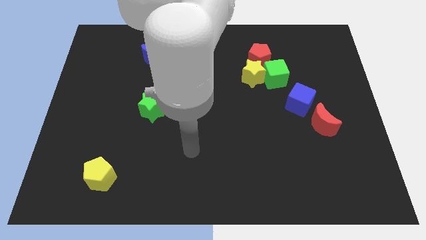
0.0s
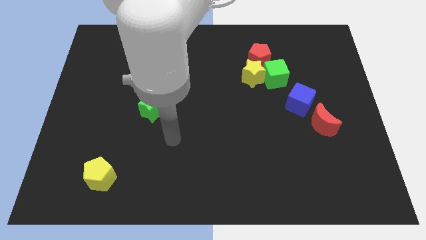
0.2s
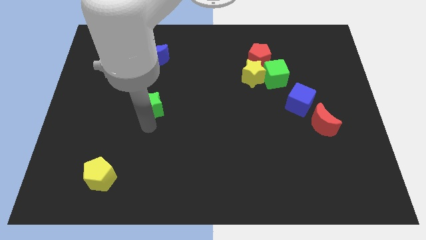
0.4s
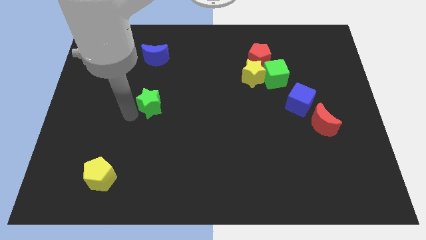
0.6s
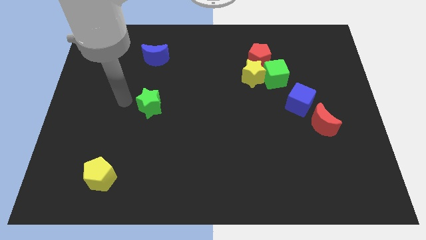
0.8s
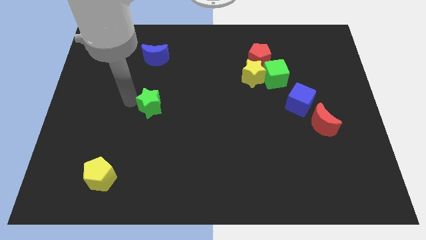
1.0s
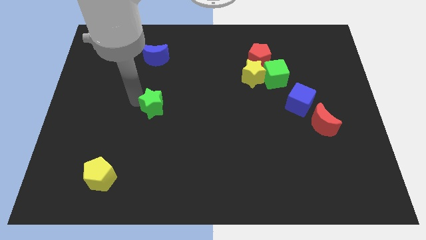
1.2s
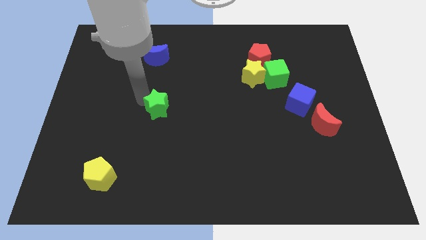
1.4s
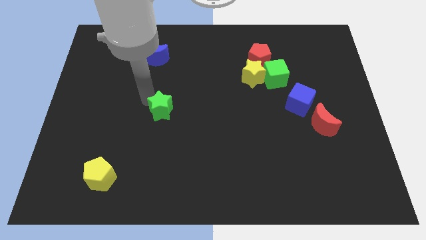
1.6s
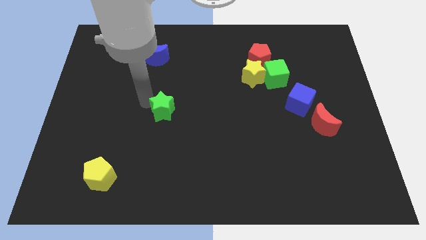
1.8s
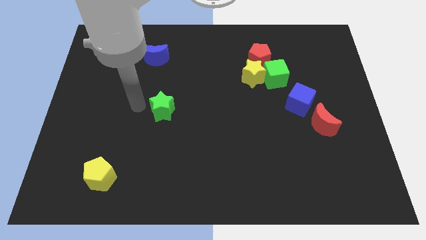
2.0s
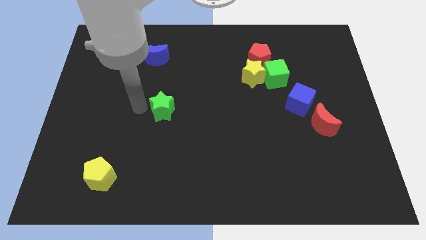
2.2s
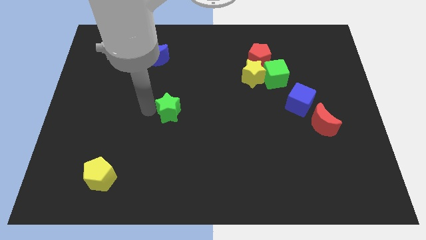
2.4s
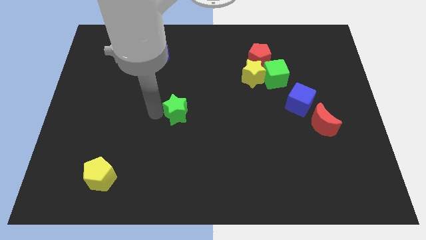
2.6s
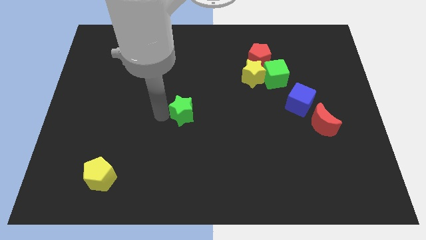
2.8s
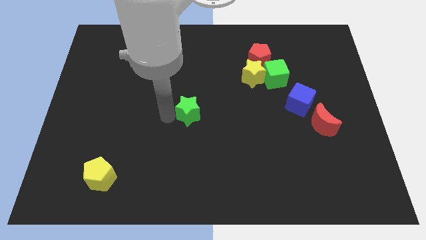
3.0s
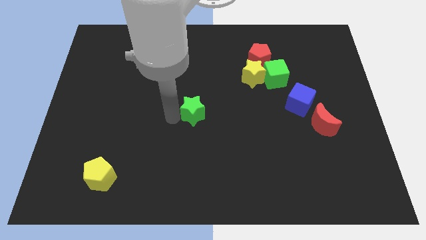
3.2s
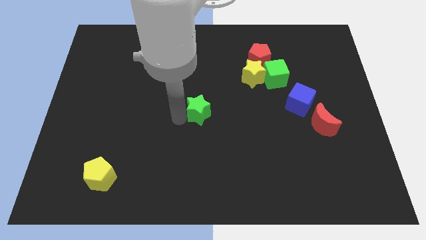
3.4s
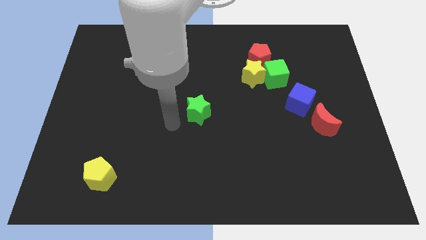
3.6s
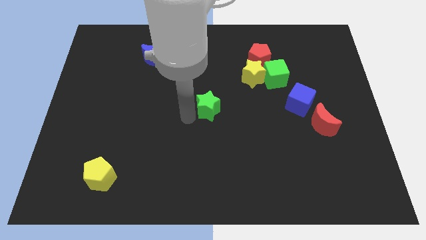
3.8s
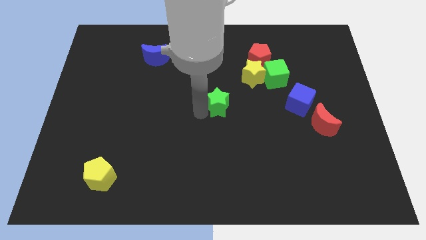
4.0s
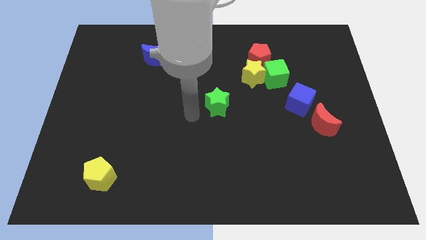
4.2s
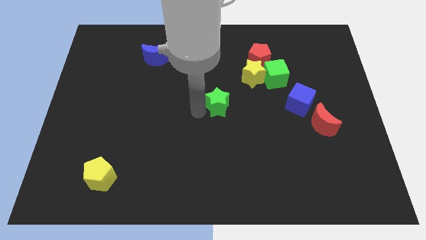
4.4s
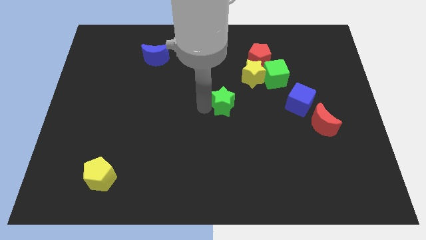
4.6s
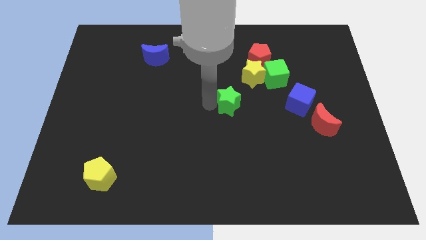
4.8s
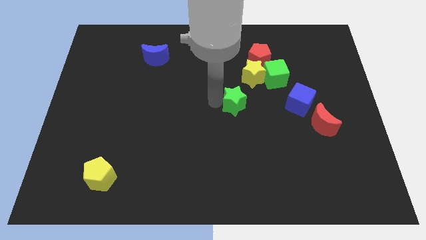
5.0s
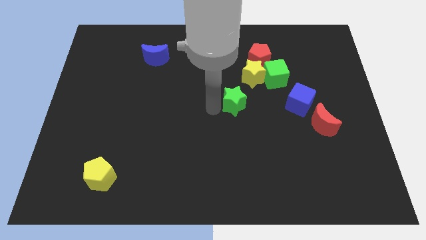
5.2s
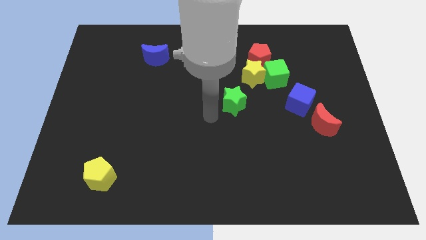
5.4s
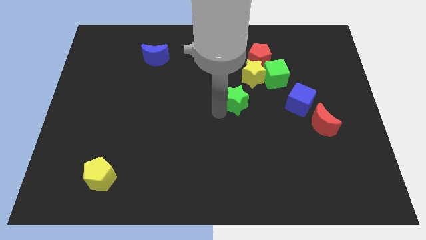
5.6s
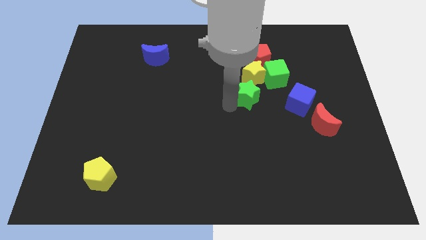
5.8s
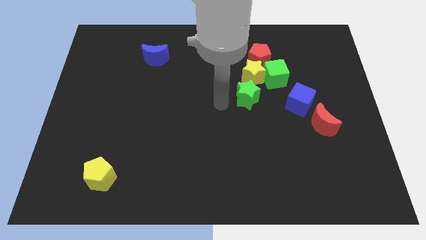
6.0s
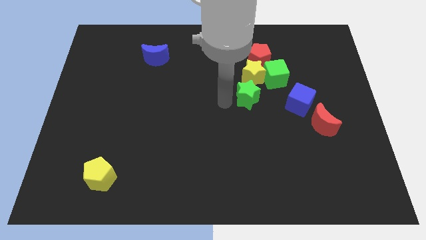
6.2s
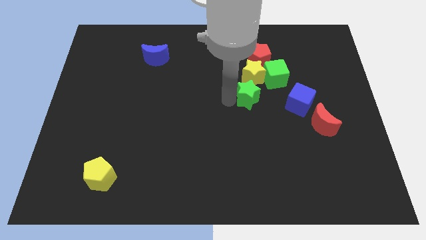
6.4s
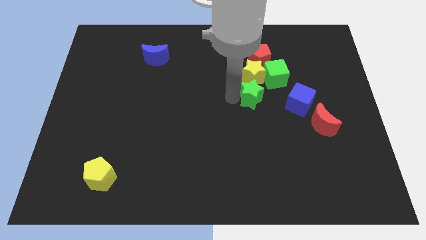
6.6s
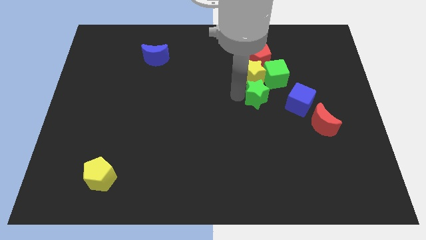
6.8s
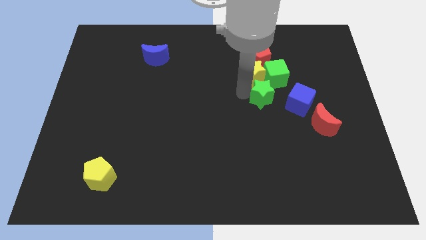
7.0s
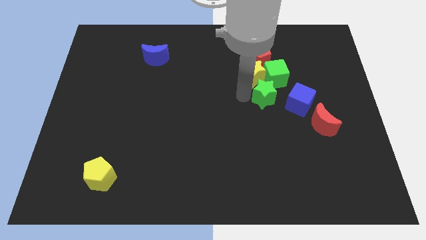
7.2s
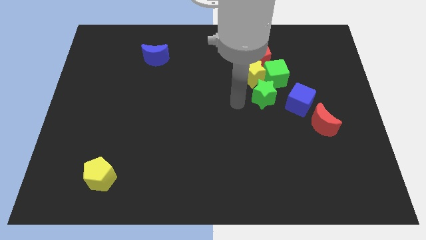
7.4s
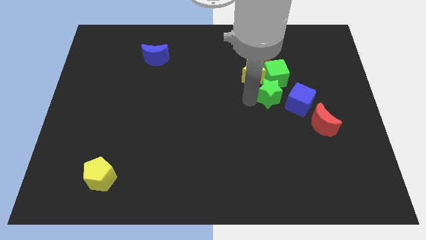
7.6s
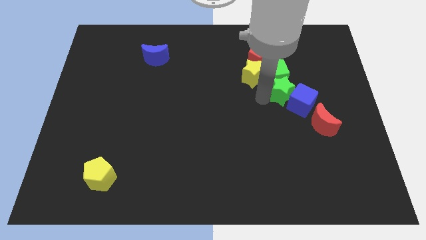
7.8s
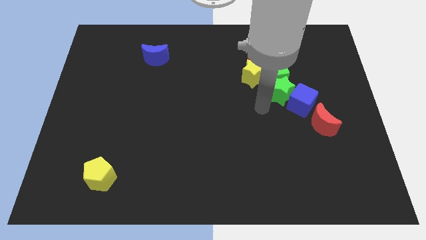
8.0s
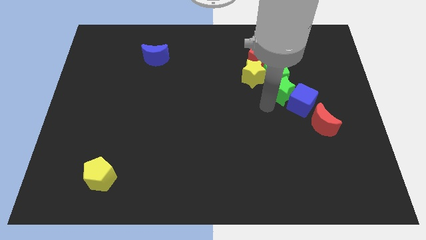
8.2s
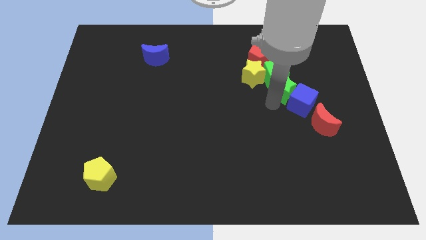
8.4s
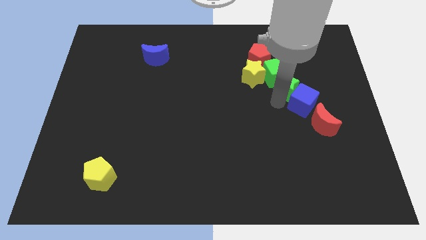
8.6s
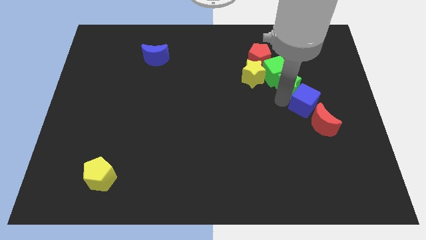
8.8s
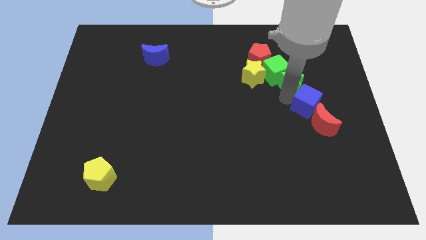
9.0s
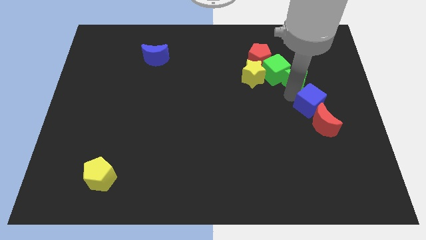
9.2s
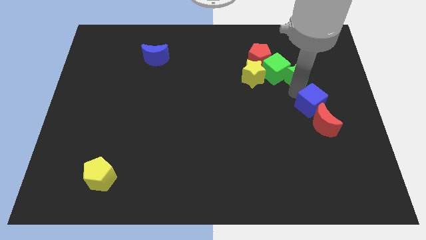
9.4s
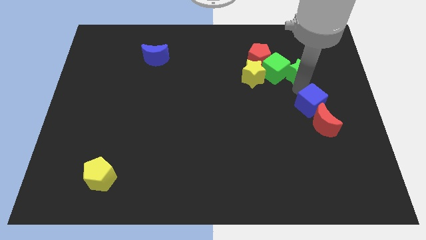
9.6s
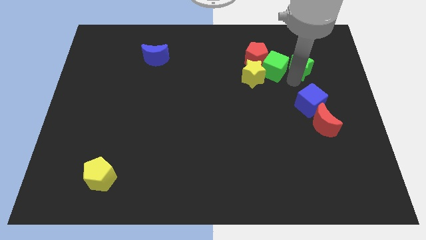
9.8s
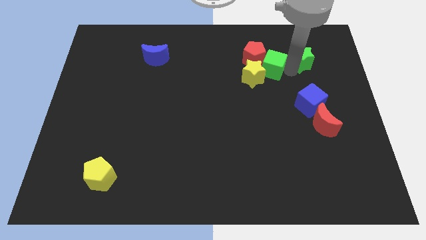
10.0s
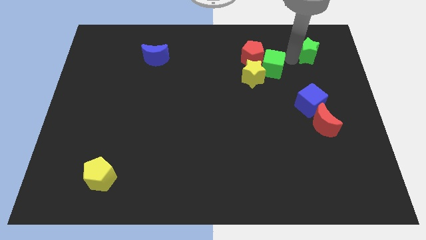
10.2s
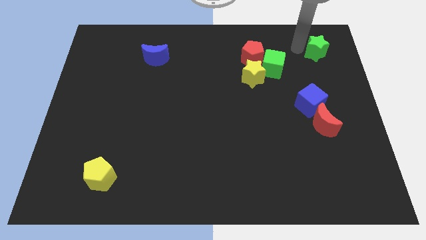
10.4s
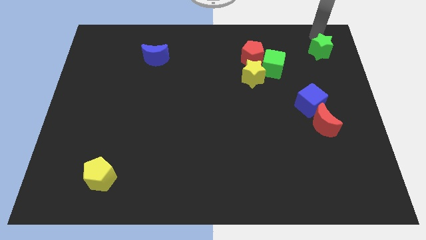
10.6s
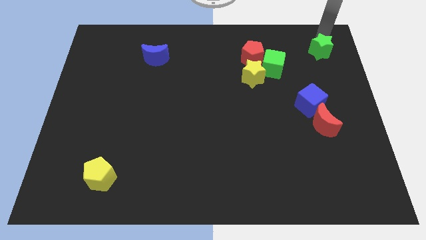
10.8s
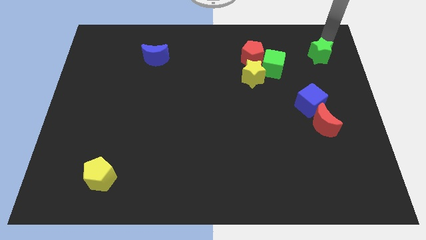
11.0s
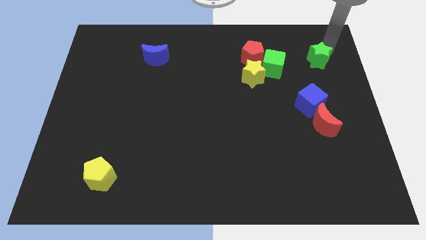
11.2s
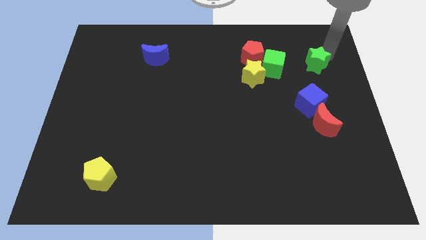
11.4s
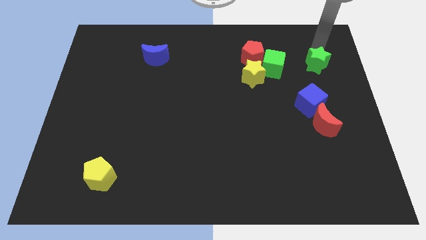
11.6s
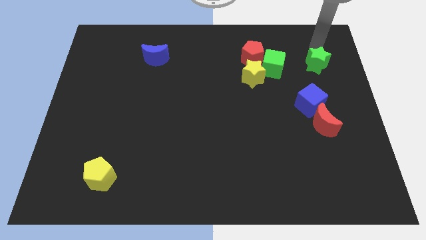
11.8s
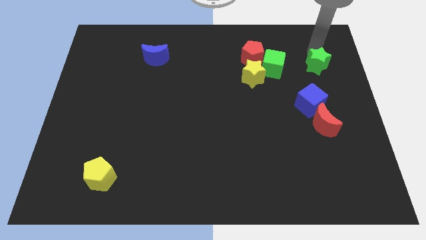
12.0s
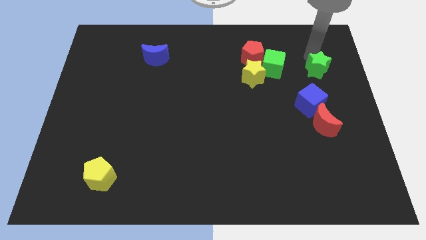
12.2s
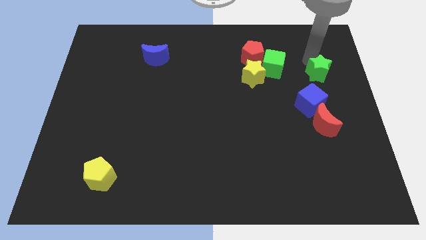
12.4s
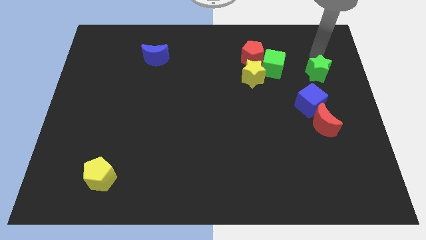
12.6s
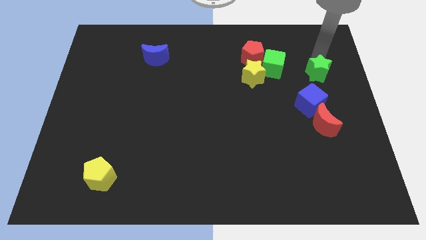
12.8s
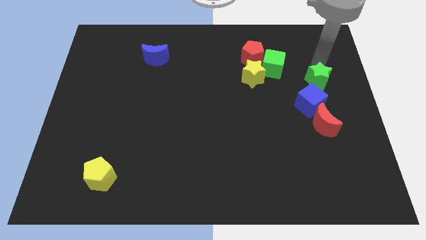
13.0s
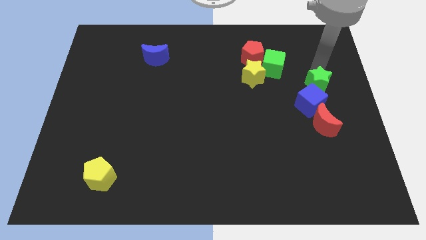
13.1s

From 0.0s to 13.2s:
push the green star to the center right

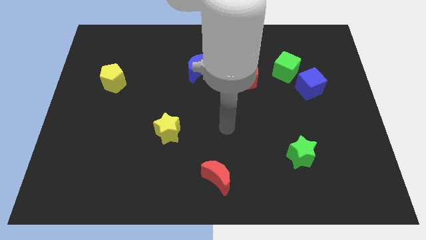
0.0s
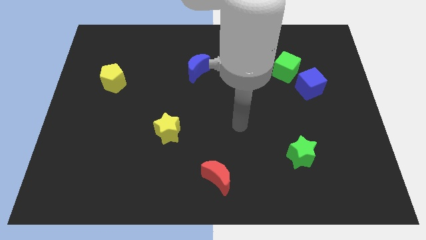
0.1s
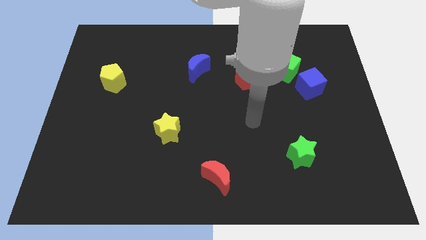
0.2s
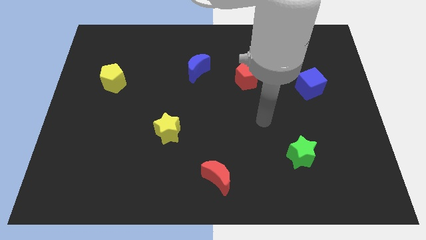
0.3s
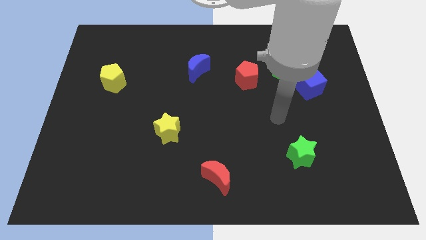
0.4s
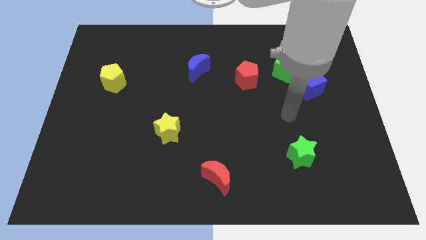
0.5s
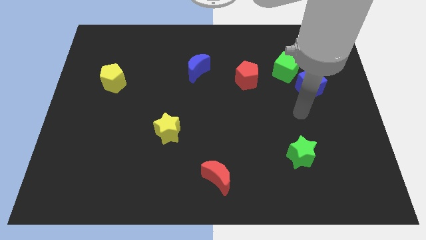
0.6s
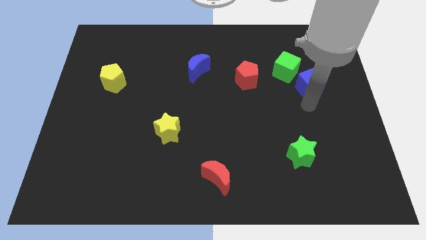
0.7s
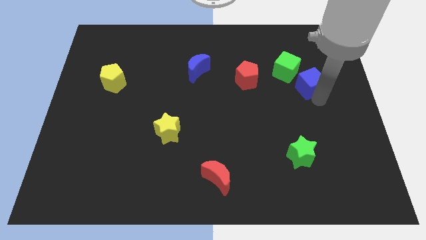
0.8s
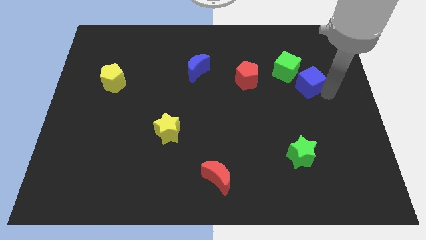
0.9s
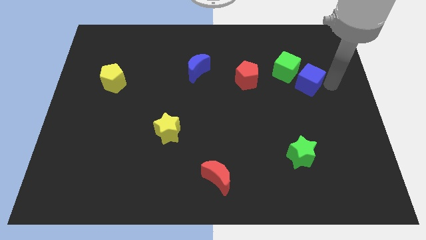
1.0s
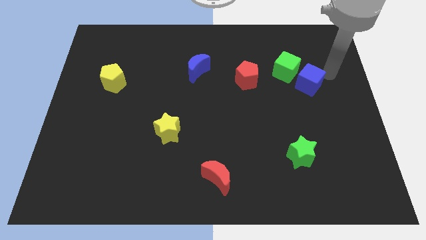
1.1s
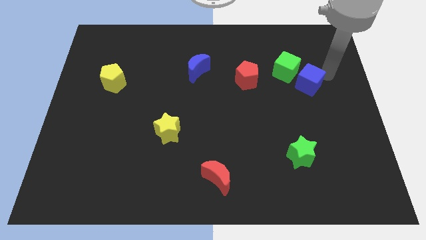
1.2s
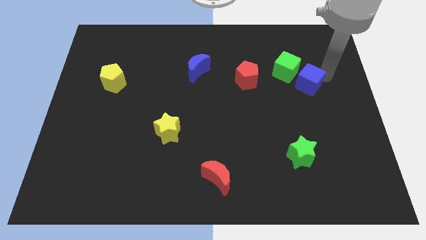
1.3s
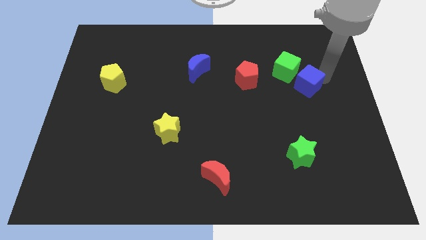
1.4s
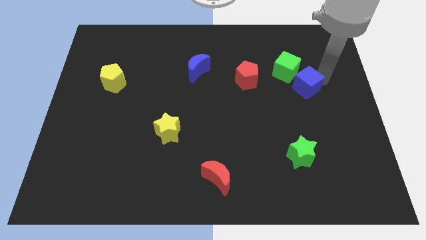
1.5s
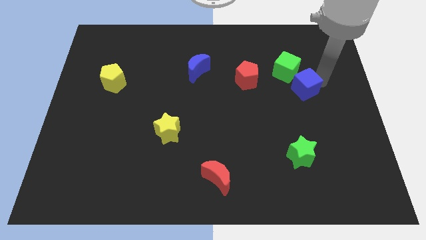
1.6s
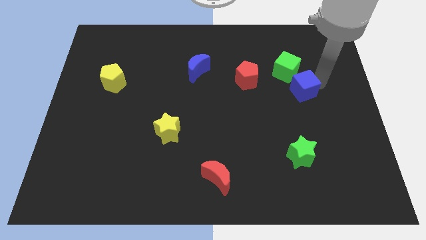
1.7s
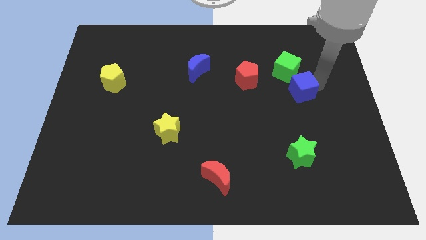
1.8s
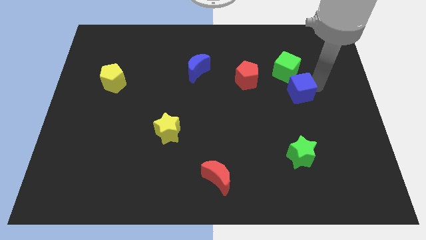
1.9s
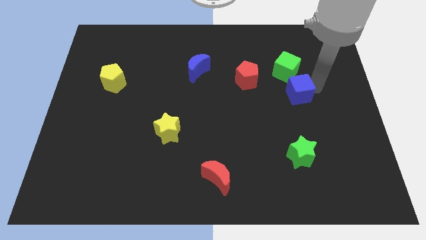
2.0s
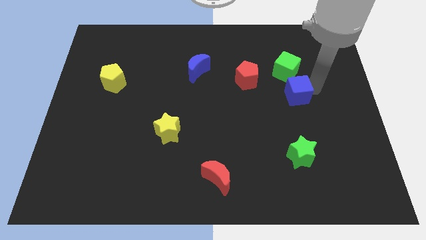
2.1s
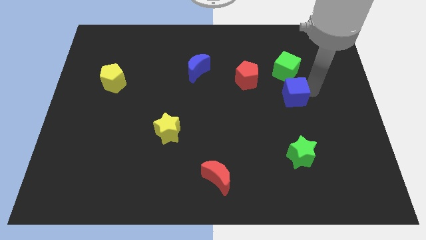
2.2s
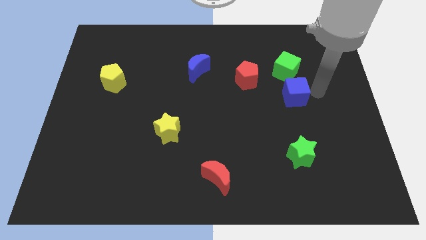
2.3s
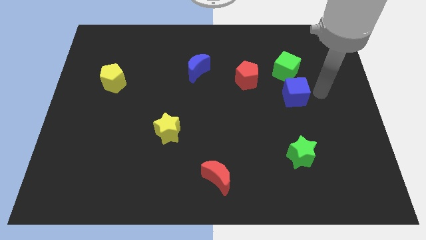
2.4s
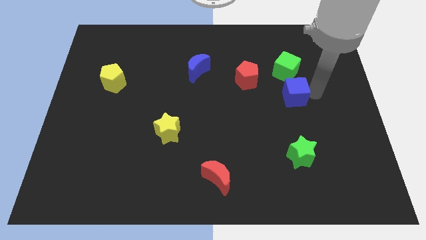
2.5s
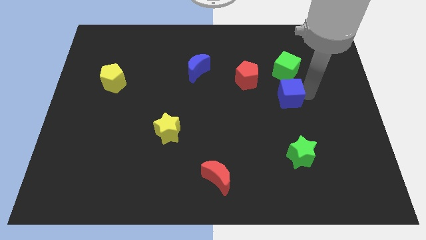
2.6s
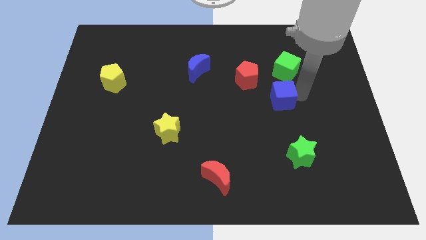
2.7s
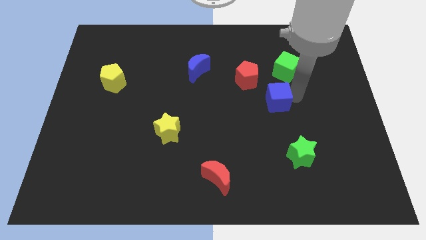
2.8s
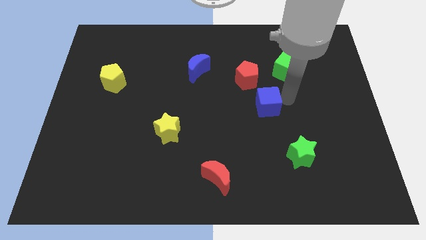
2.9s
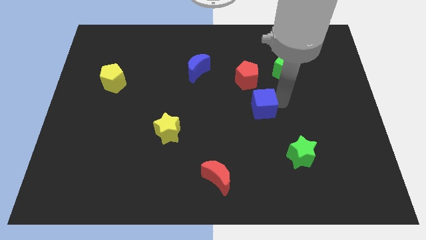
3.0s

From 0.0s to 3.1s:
put the blue cube to the center of the board
